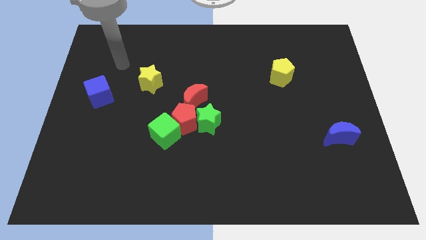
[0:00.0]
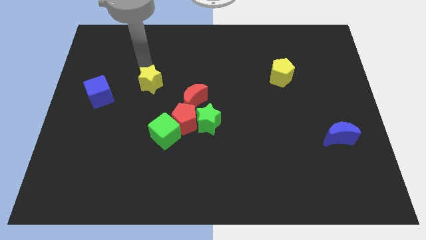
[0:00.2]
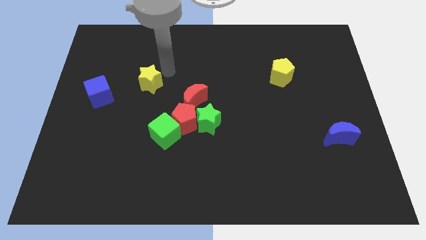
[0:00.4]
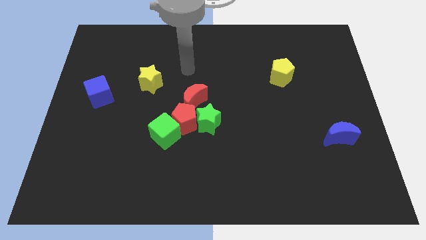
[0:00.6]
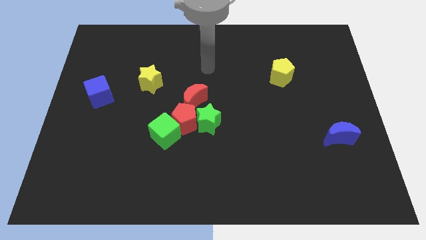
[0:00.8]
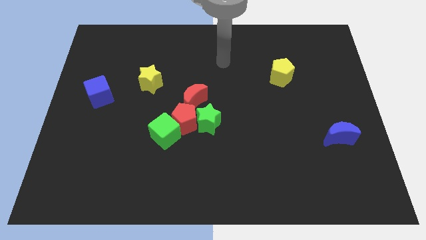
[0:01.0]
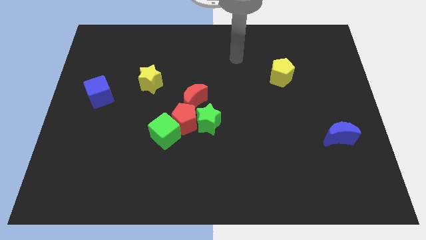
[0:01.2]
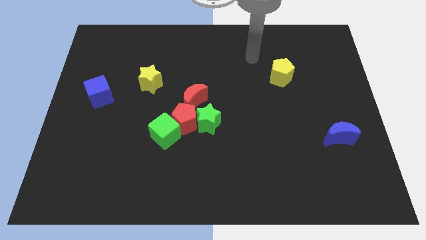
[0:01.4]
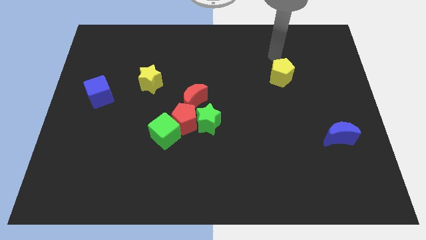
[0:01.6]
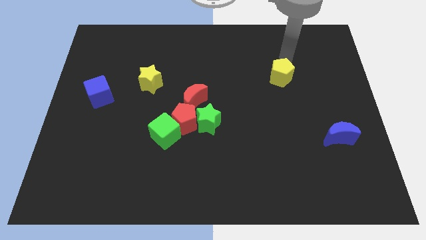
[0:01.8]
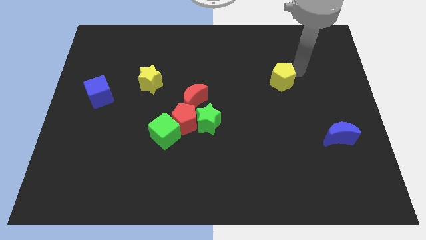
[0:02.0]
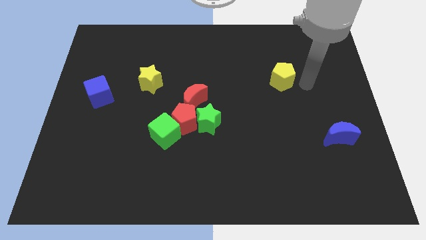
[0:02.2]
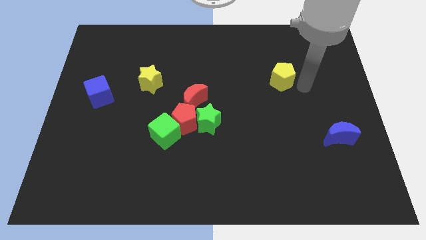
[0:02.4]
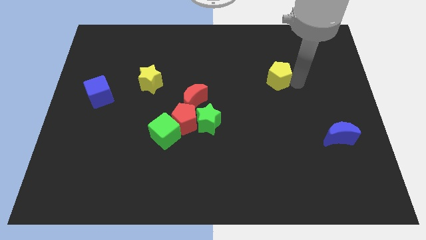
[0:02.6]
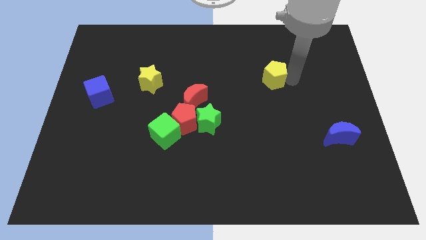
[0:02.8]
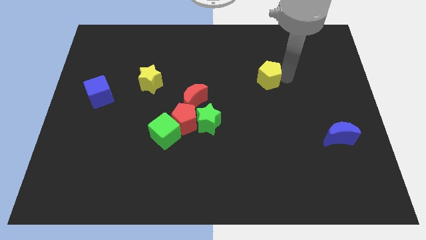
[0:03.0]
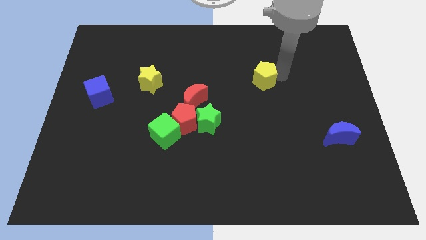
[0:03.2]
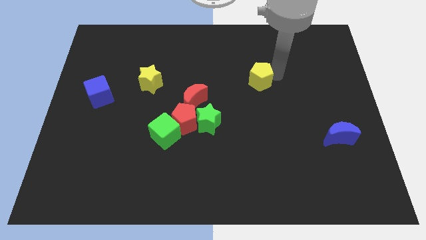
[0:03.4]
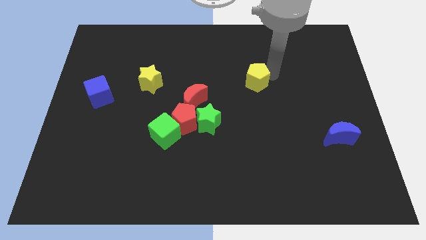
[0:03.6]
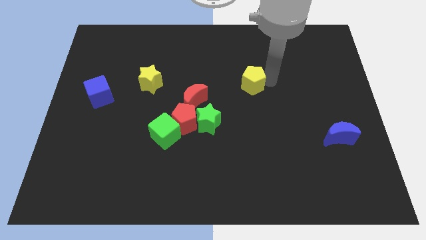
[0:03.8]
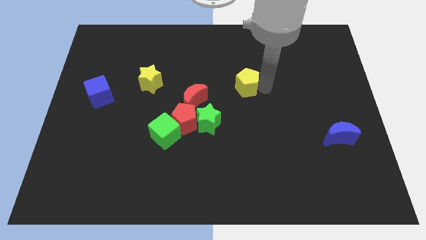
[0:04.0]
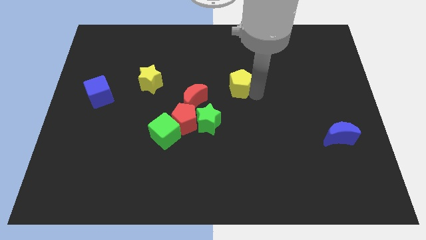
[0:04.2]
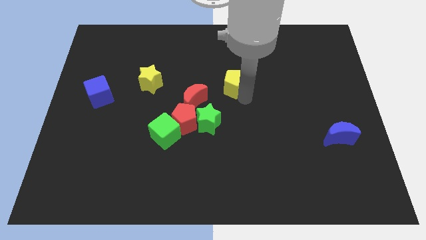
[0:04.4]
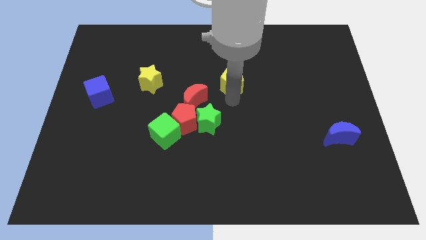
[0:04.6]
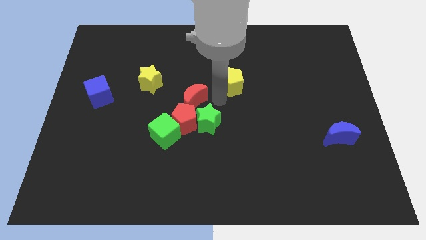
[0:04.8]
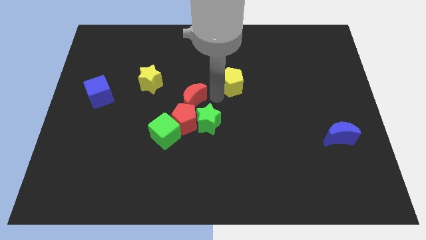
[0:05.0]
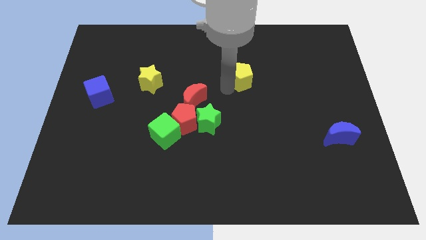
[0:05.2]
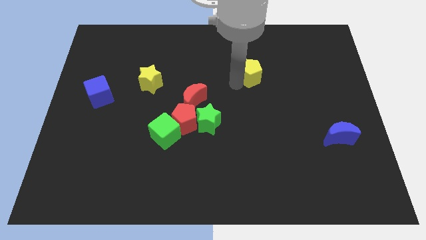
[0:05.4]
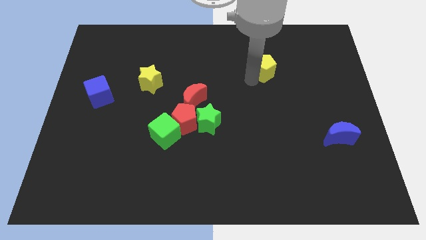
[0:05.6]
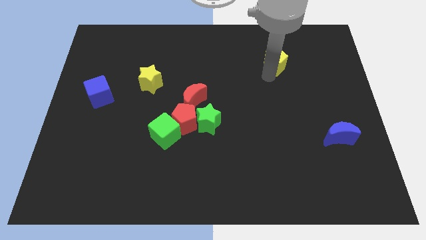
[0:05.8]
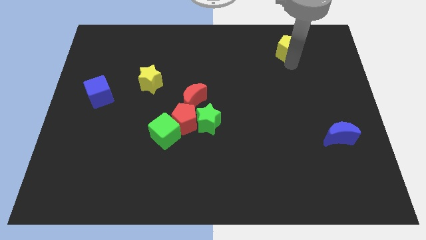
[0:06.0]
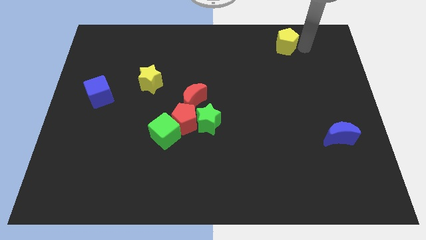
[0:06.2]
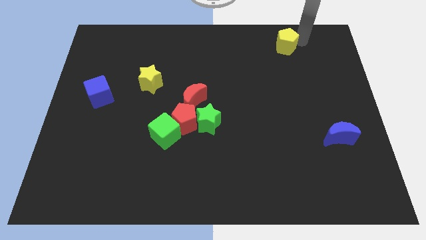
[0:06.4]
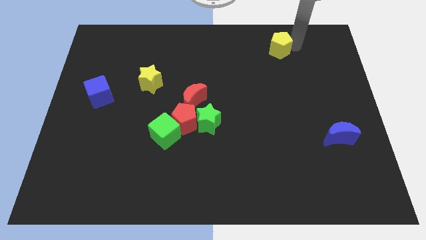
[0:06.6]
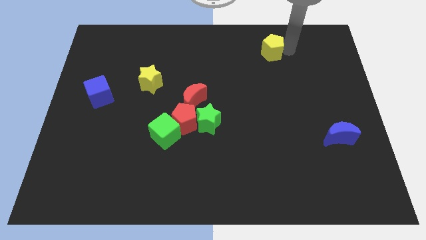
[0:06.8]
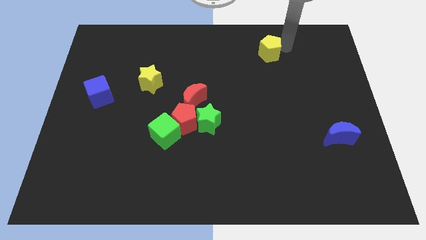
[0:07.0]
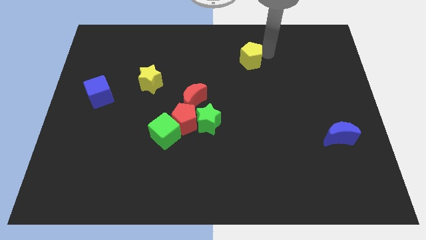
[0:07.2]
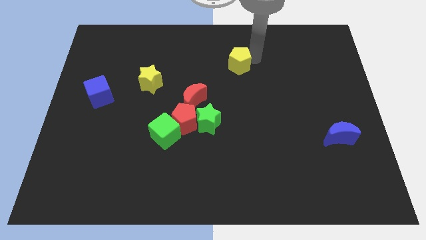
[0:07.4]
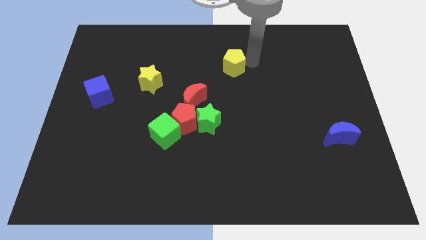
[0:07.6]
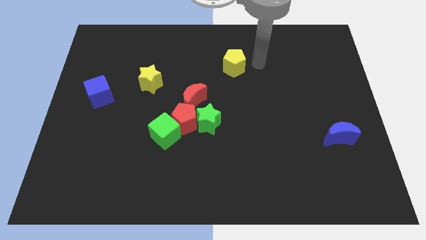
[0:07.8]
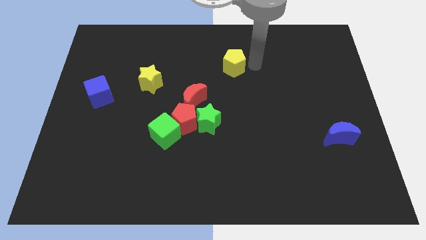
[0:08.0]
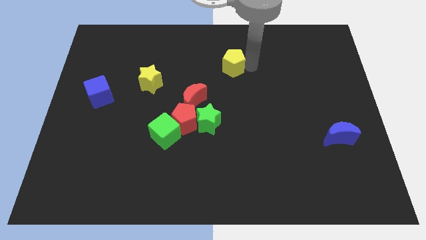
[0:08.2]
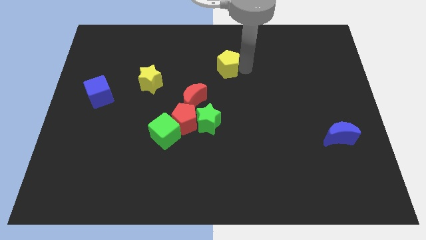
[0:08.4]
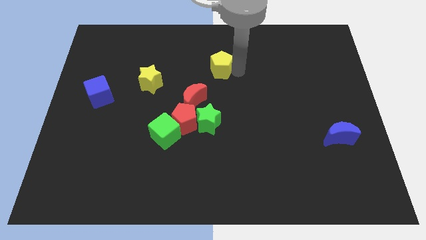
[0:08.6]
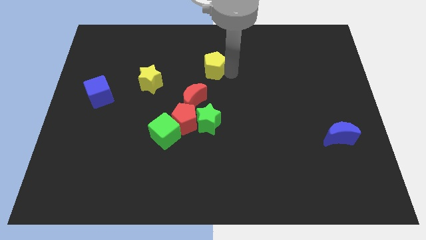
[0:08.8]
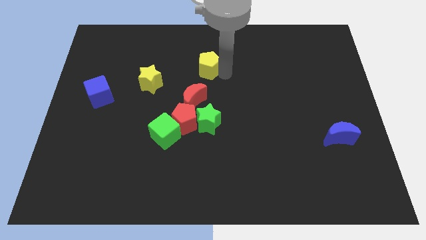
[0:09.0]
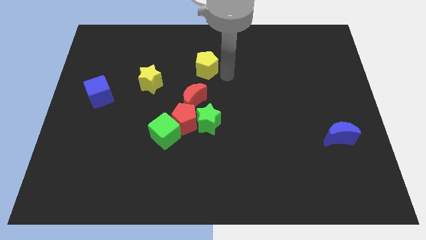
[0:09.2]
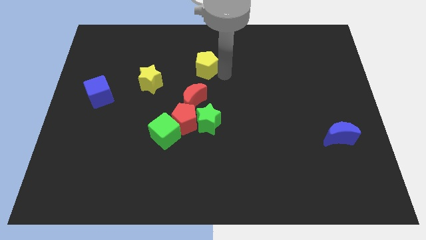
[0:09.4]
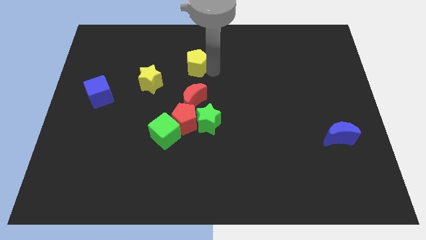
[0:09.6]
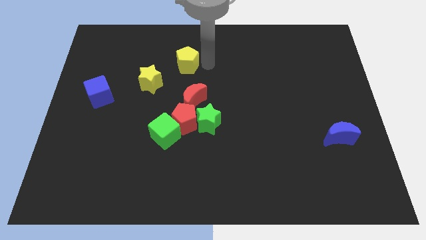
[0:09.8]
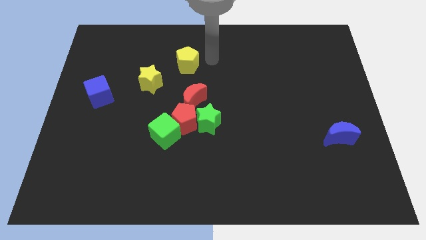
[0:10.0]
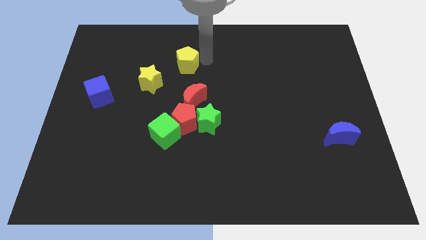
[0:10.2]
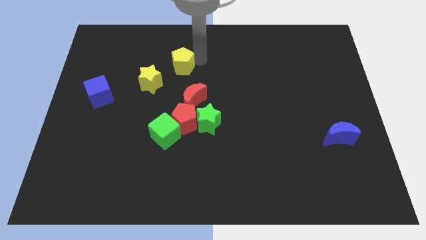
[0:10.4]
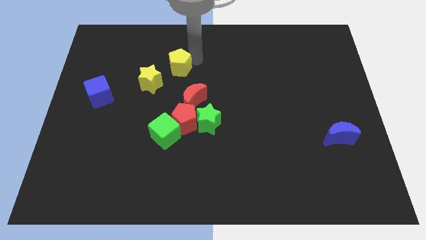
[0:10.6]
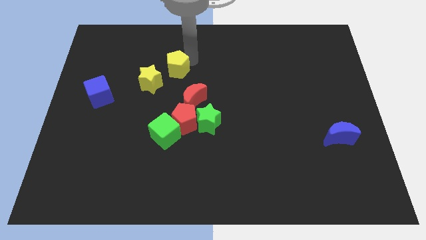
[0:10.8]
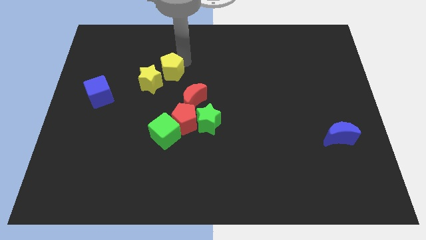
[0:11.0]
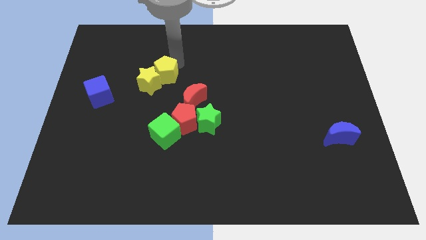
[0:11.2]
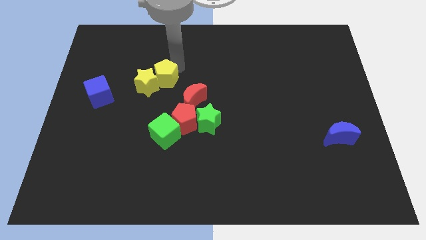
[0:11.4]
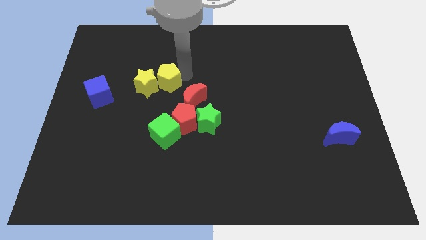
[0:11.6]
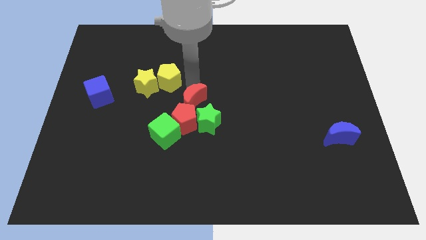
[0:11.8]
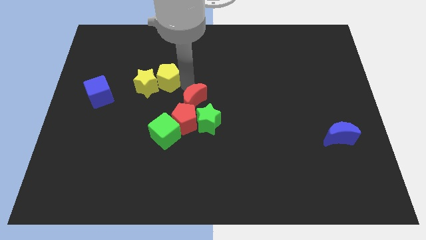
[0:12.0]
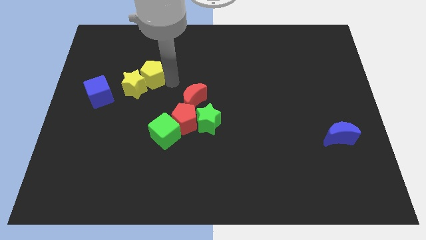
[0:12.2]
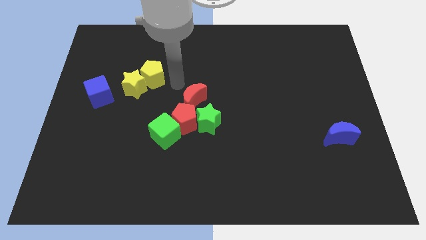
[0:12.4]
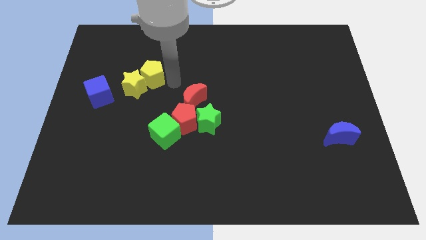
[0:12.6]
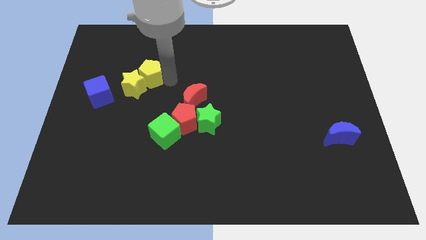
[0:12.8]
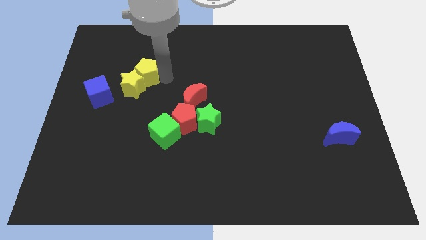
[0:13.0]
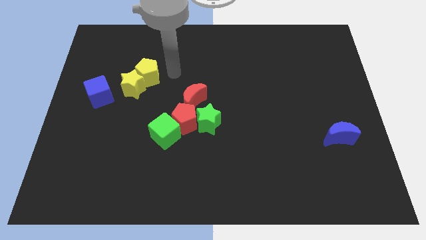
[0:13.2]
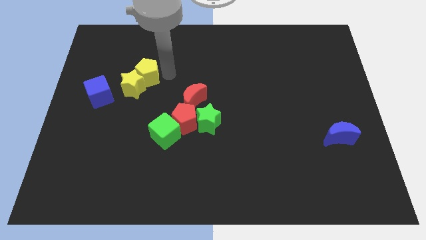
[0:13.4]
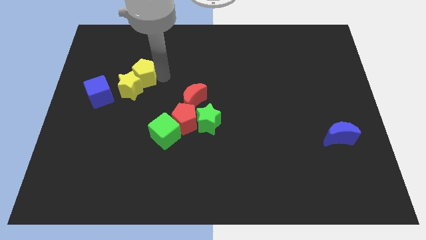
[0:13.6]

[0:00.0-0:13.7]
slide the yellow pentagon to the top right side of the blue cube
